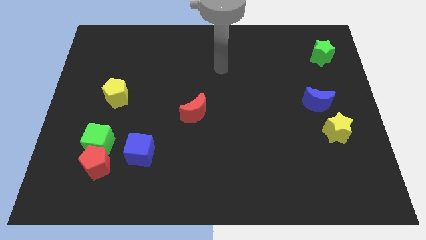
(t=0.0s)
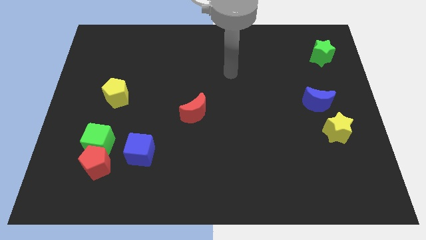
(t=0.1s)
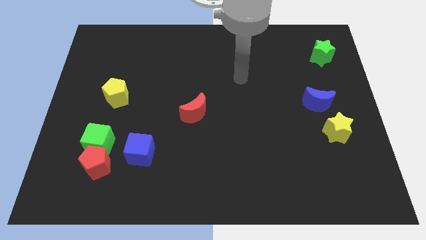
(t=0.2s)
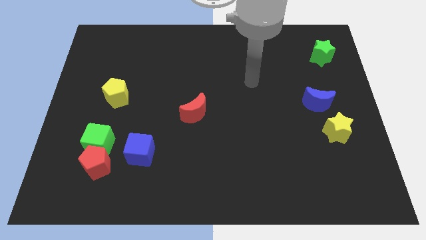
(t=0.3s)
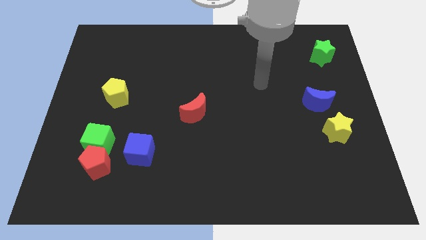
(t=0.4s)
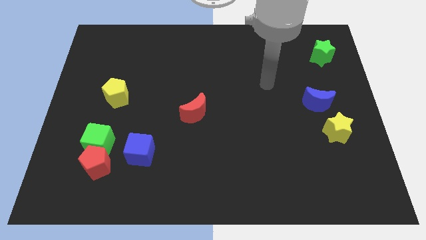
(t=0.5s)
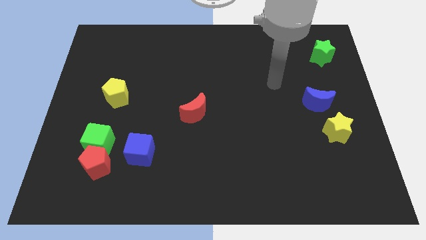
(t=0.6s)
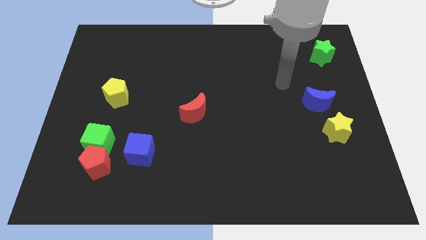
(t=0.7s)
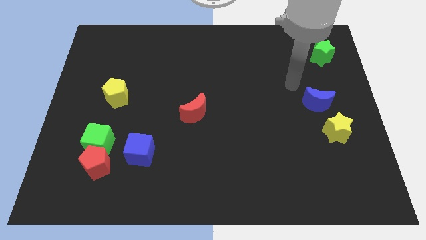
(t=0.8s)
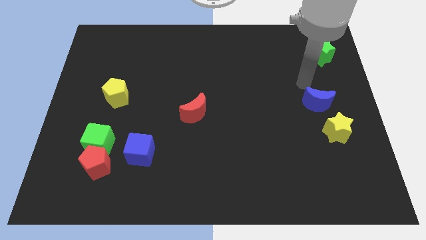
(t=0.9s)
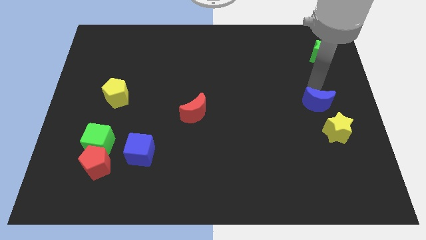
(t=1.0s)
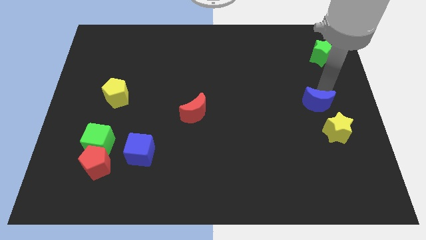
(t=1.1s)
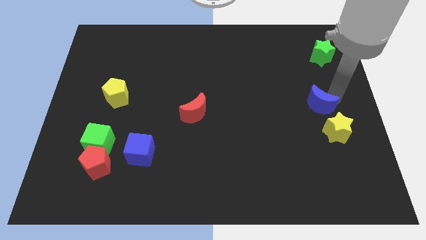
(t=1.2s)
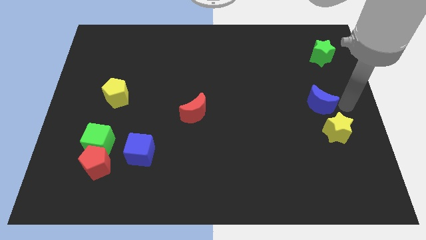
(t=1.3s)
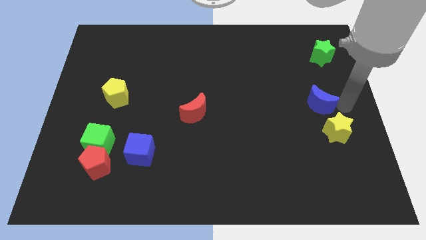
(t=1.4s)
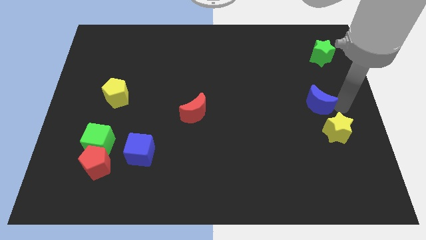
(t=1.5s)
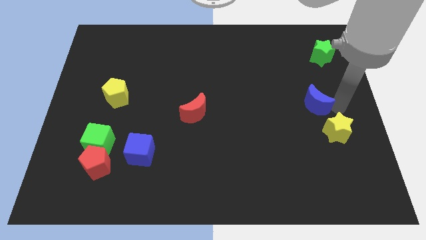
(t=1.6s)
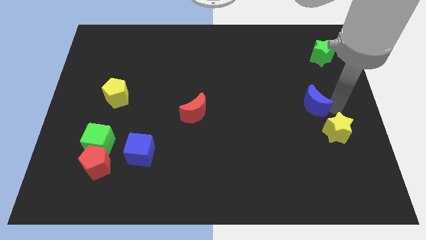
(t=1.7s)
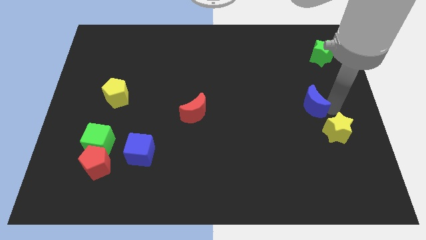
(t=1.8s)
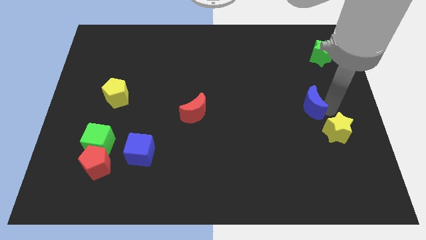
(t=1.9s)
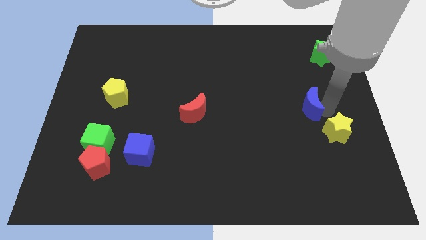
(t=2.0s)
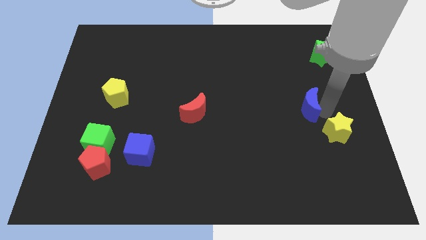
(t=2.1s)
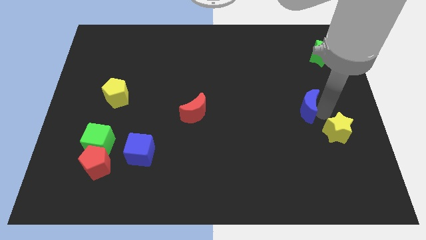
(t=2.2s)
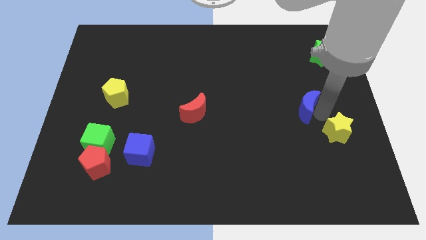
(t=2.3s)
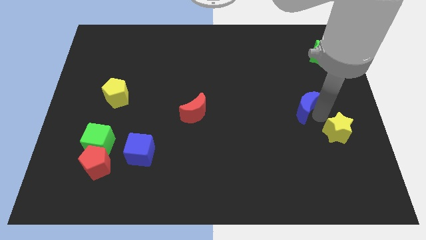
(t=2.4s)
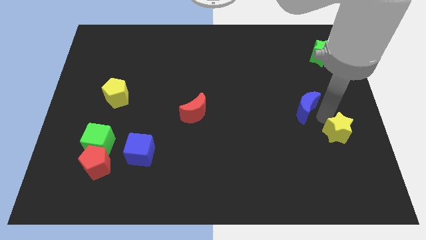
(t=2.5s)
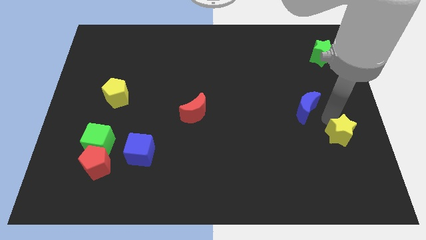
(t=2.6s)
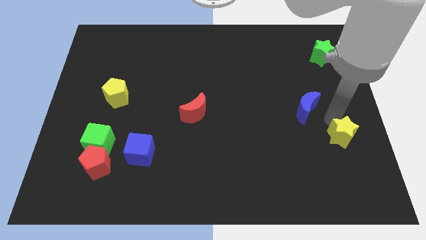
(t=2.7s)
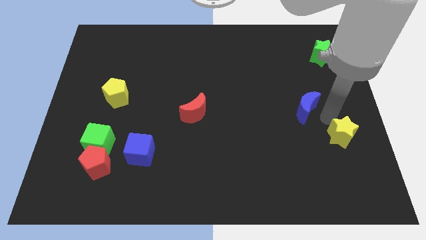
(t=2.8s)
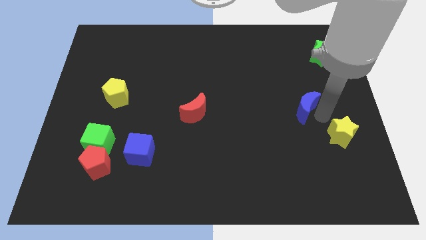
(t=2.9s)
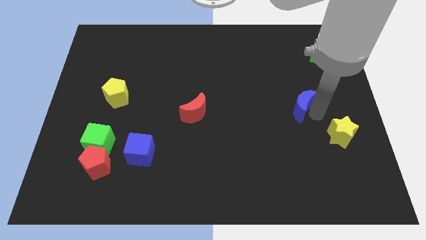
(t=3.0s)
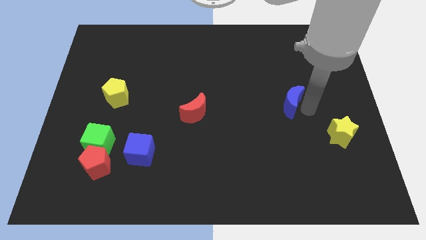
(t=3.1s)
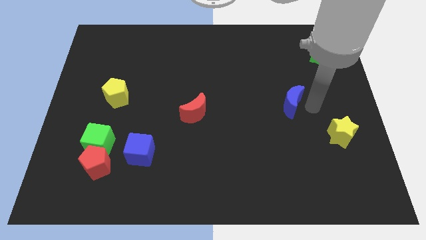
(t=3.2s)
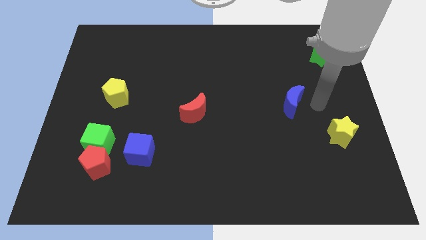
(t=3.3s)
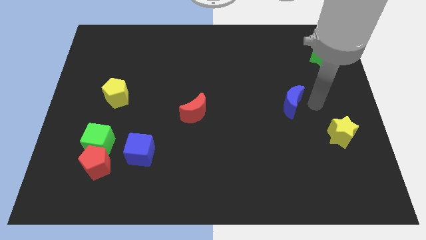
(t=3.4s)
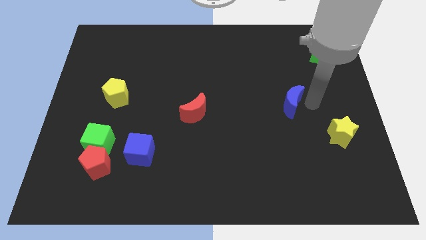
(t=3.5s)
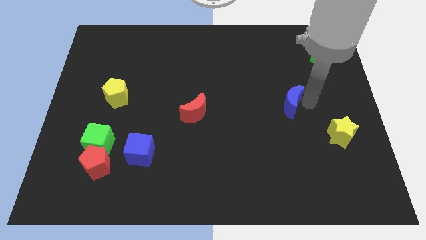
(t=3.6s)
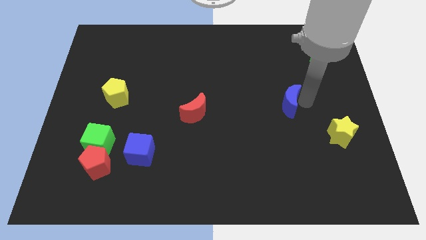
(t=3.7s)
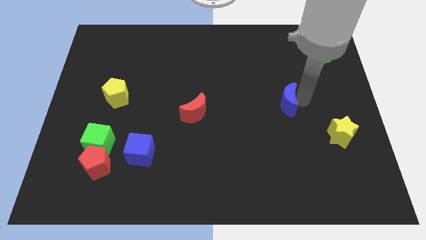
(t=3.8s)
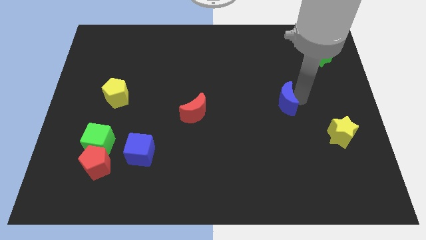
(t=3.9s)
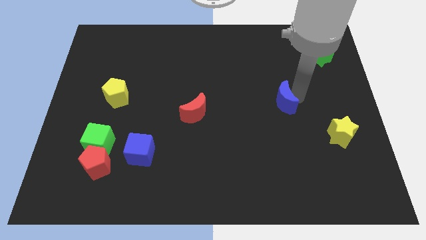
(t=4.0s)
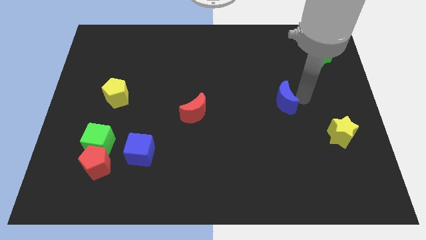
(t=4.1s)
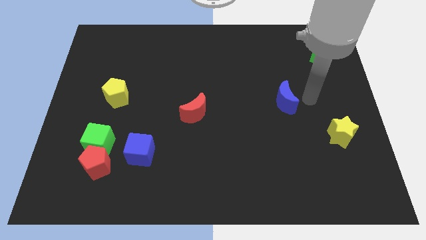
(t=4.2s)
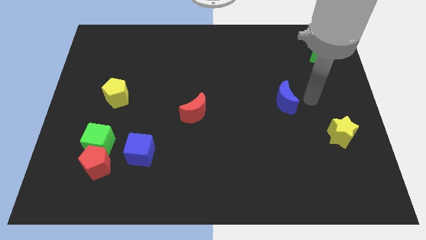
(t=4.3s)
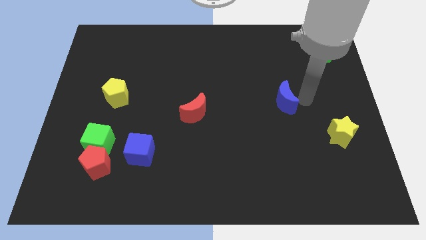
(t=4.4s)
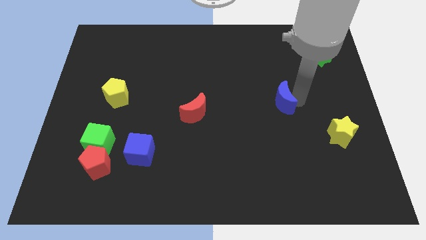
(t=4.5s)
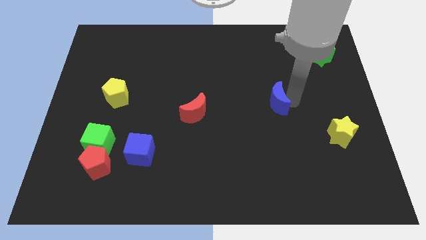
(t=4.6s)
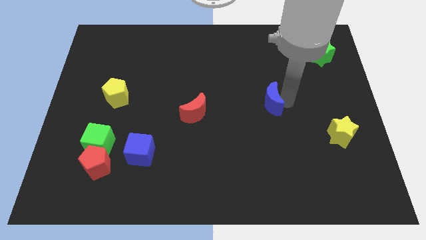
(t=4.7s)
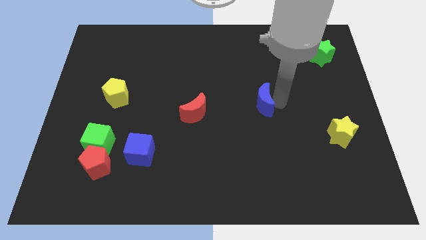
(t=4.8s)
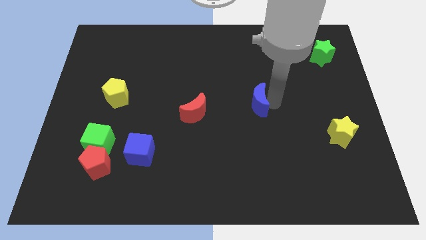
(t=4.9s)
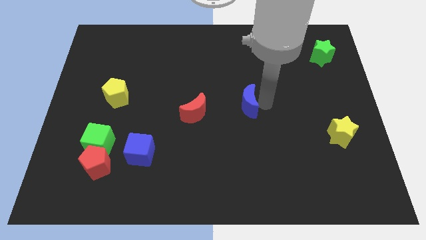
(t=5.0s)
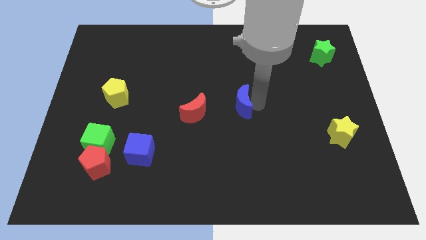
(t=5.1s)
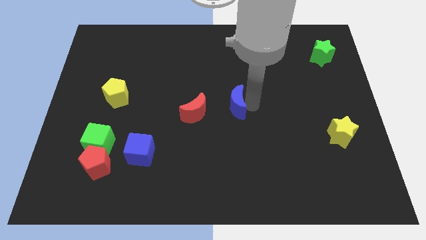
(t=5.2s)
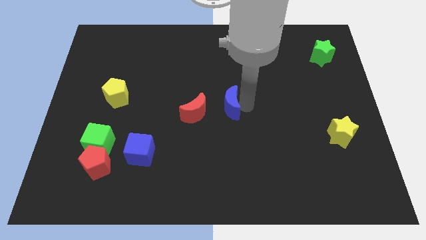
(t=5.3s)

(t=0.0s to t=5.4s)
push the blue moon left

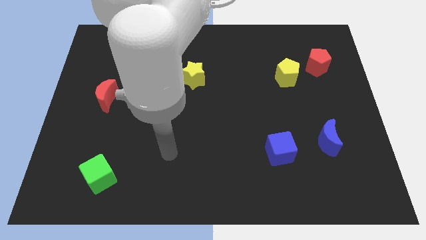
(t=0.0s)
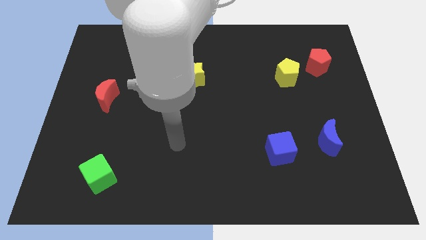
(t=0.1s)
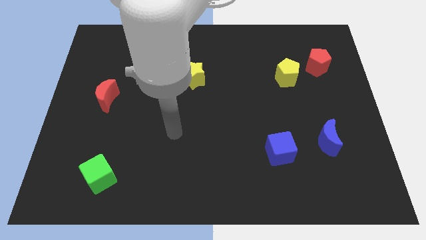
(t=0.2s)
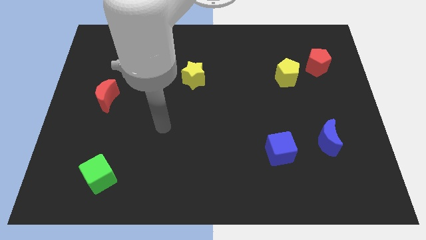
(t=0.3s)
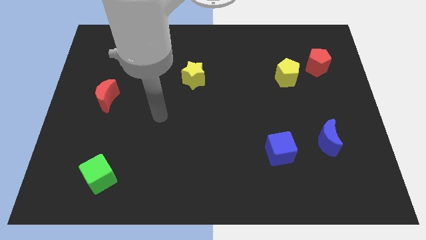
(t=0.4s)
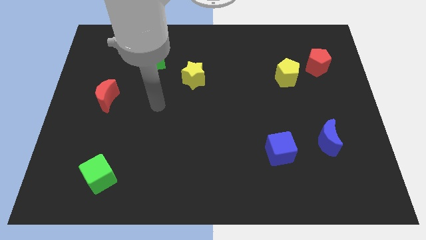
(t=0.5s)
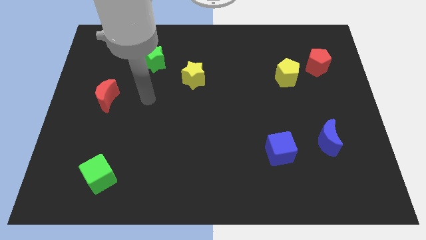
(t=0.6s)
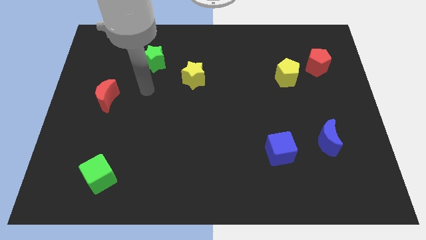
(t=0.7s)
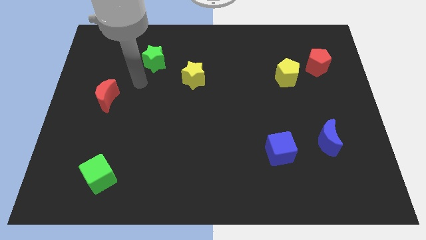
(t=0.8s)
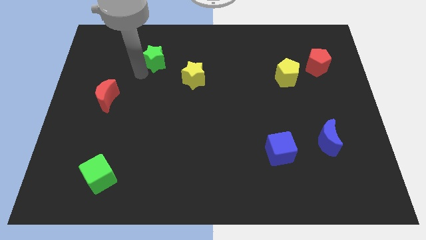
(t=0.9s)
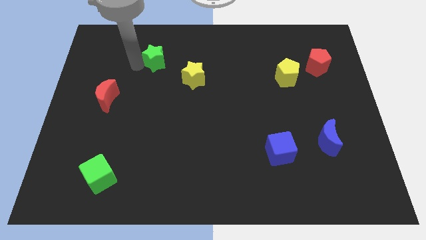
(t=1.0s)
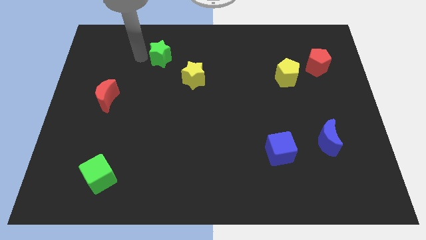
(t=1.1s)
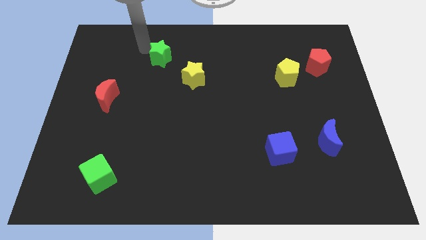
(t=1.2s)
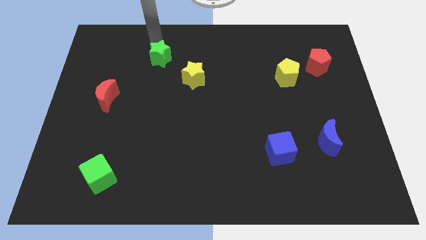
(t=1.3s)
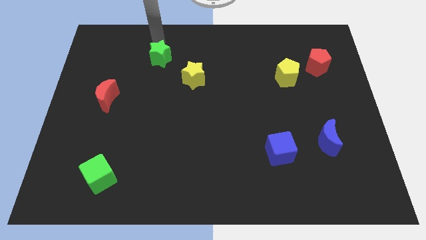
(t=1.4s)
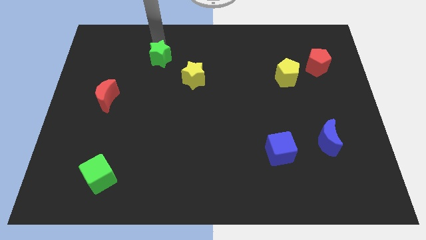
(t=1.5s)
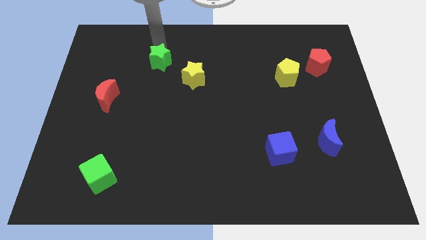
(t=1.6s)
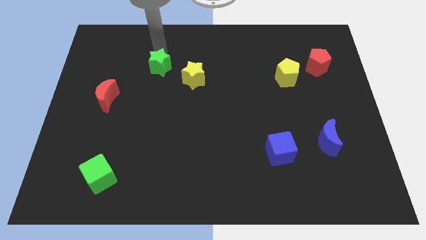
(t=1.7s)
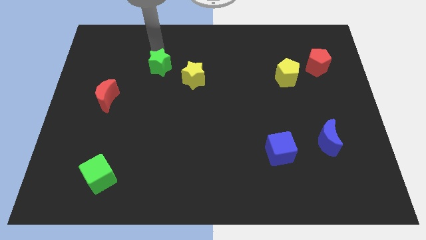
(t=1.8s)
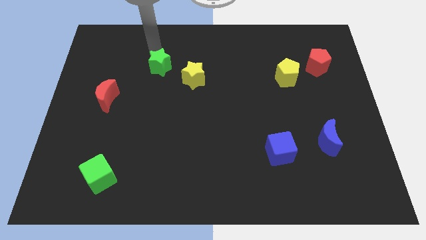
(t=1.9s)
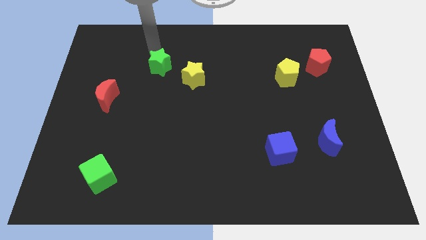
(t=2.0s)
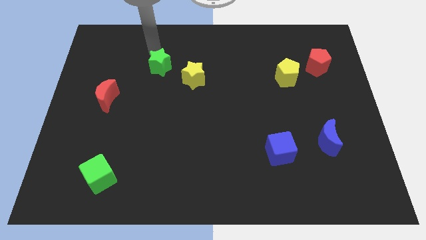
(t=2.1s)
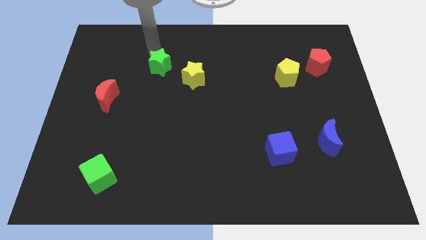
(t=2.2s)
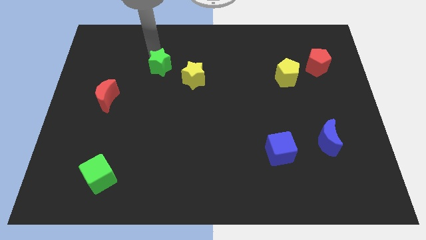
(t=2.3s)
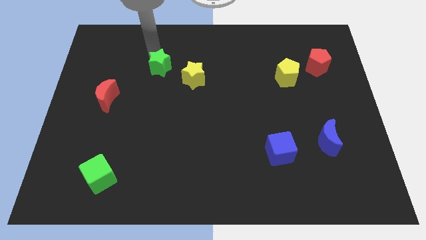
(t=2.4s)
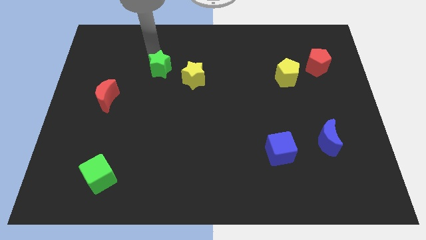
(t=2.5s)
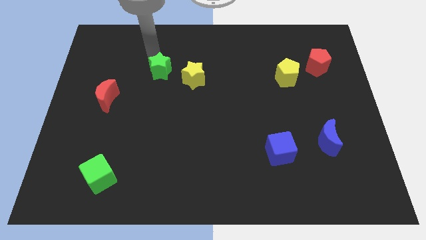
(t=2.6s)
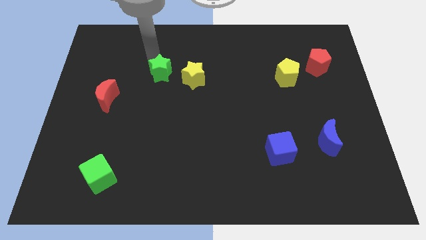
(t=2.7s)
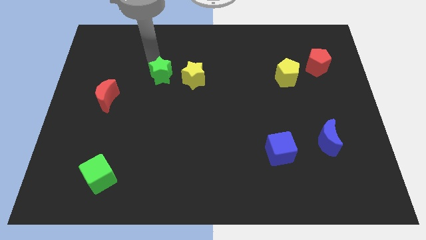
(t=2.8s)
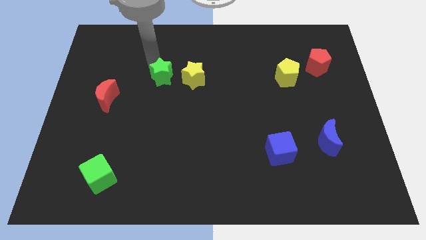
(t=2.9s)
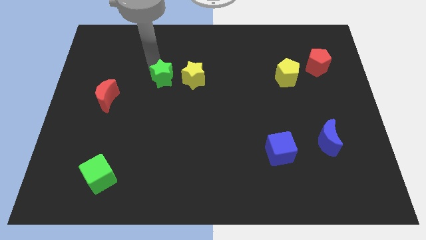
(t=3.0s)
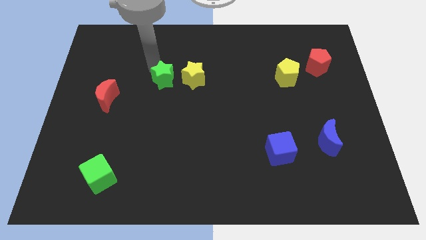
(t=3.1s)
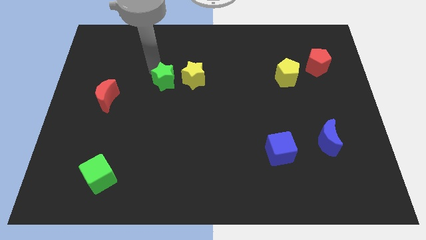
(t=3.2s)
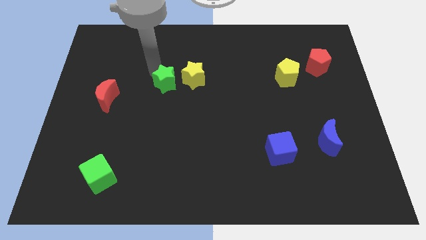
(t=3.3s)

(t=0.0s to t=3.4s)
move the green star a little bit downwards and to the right diagonally
